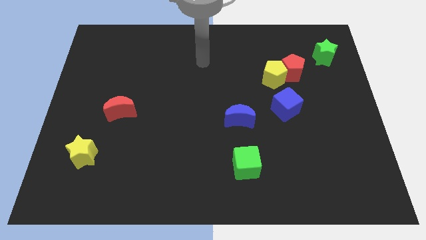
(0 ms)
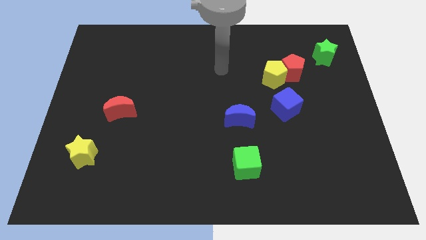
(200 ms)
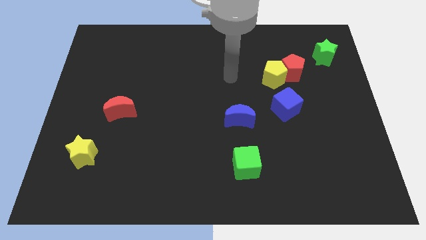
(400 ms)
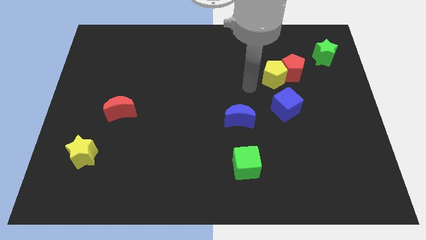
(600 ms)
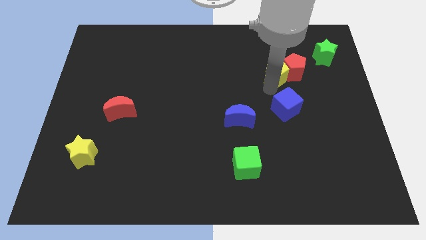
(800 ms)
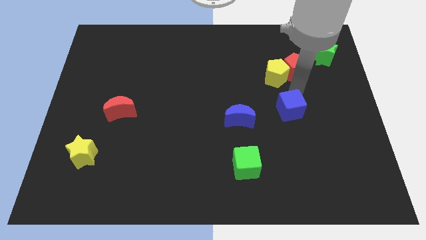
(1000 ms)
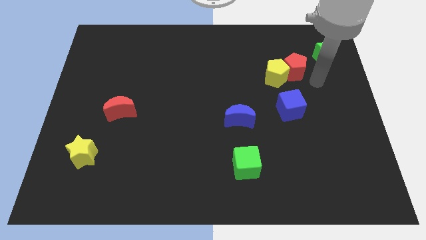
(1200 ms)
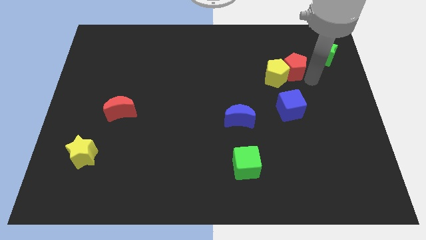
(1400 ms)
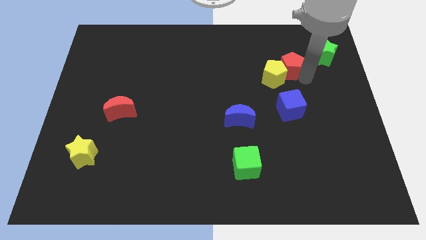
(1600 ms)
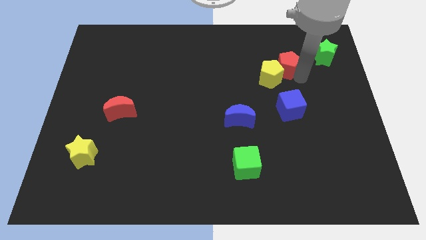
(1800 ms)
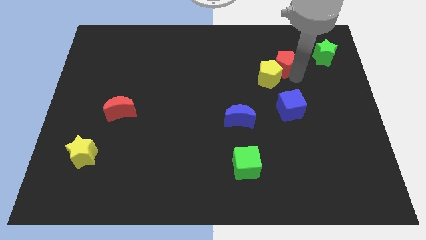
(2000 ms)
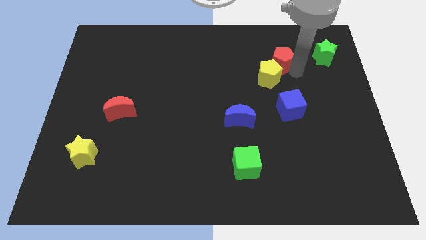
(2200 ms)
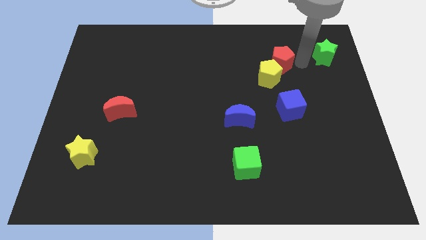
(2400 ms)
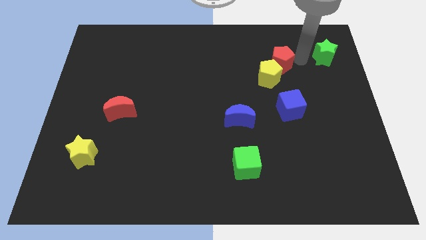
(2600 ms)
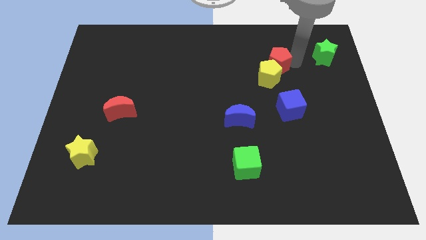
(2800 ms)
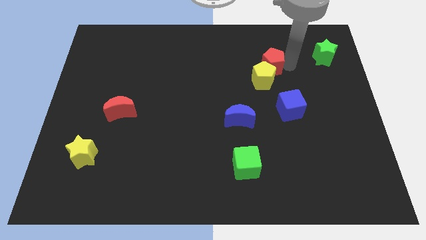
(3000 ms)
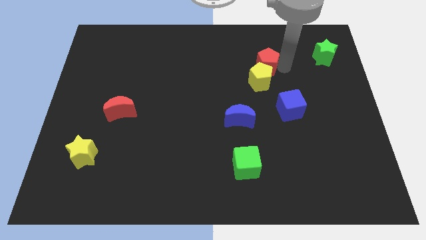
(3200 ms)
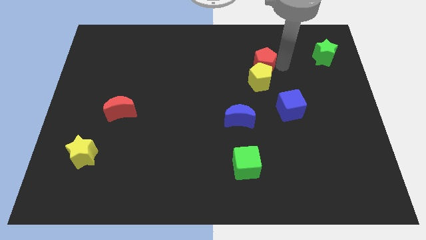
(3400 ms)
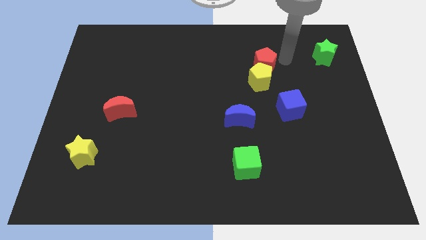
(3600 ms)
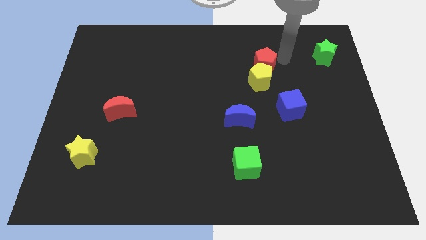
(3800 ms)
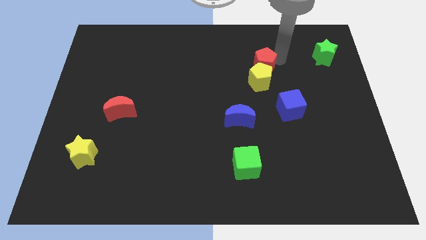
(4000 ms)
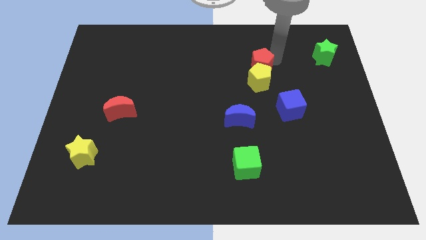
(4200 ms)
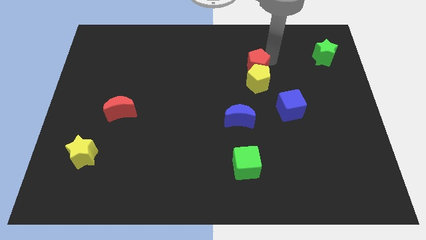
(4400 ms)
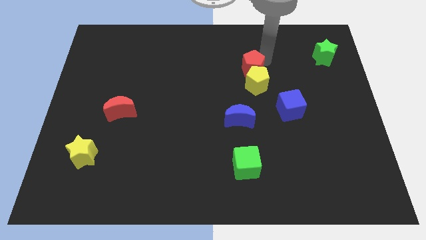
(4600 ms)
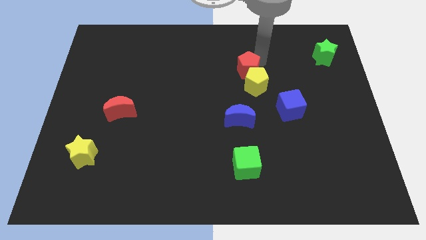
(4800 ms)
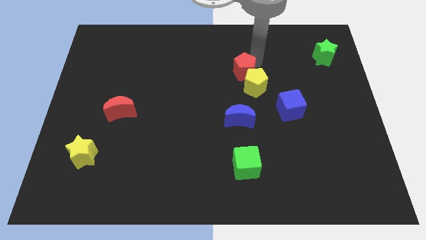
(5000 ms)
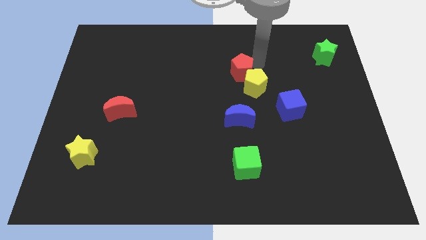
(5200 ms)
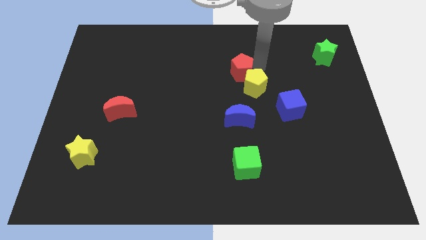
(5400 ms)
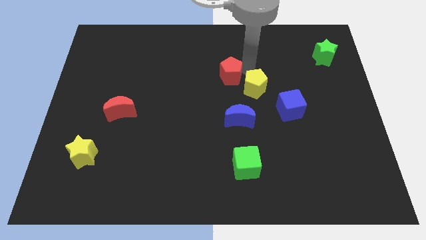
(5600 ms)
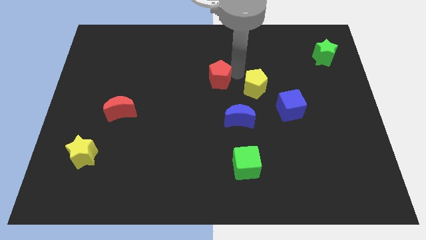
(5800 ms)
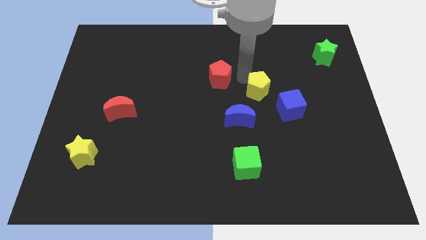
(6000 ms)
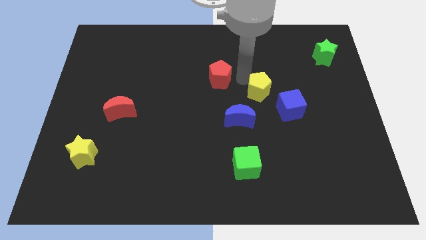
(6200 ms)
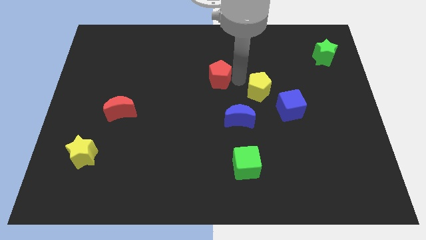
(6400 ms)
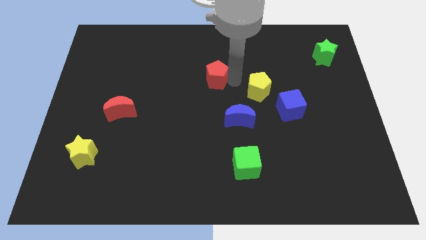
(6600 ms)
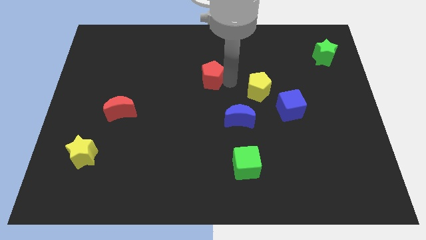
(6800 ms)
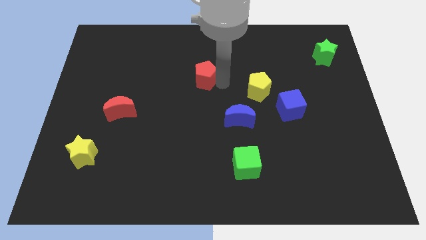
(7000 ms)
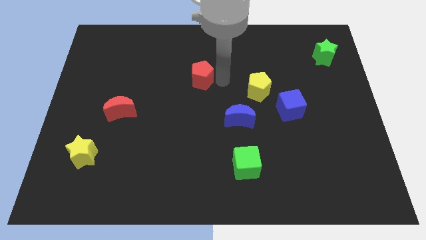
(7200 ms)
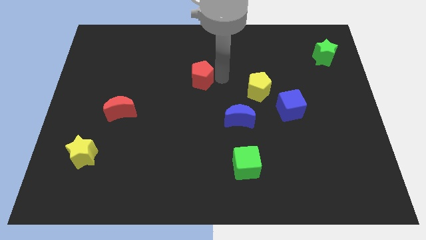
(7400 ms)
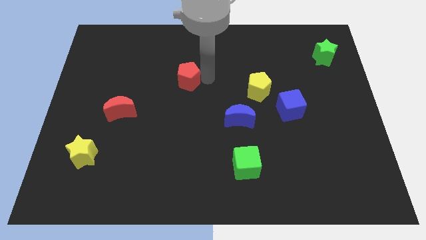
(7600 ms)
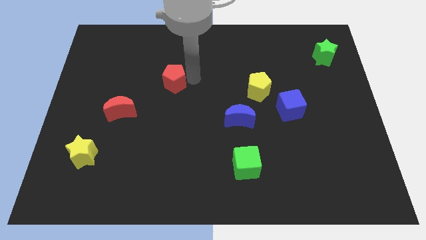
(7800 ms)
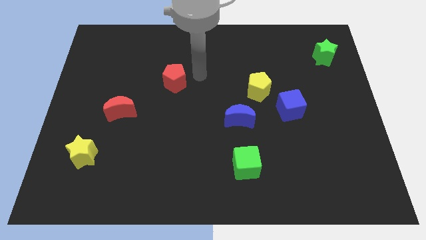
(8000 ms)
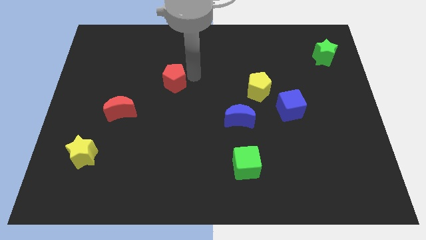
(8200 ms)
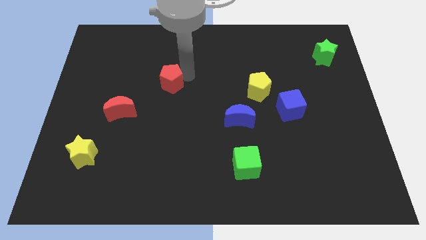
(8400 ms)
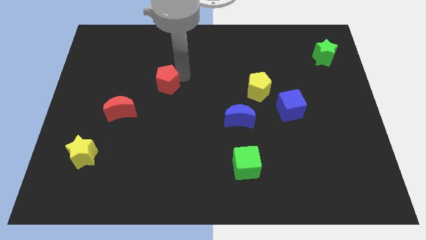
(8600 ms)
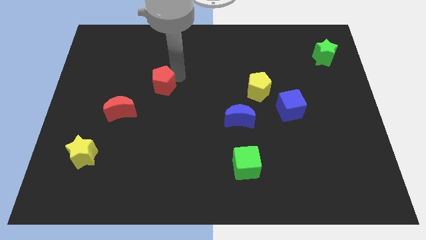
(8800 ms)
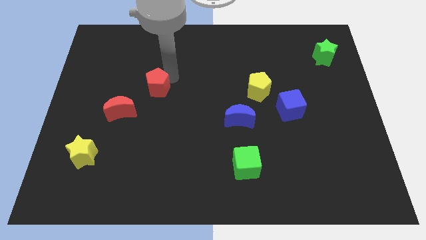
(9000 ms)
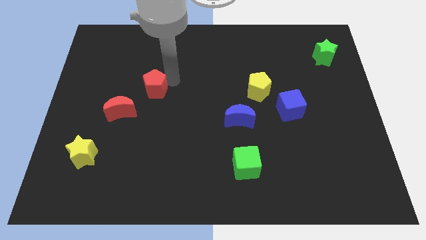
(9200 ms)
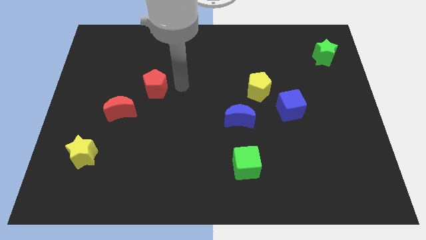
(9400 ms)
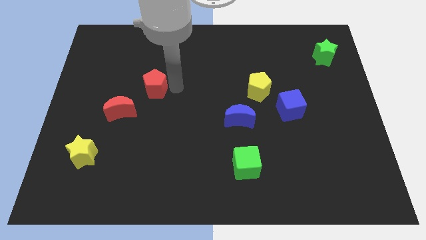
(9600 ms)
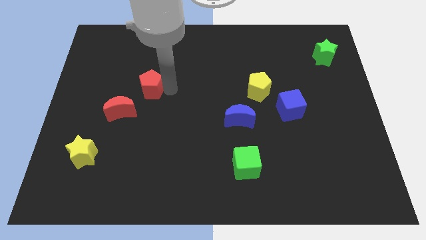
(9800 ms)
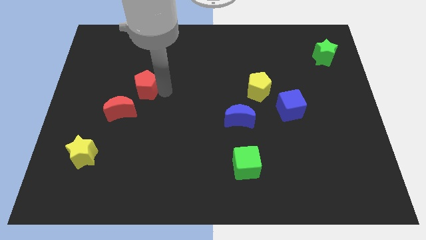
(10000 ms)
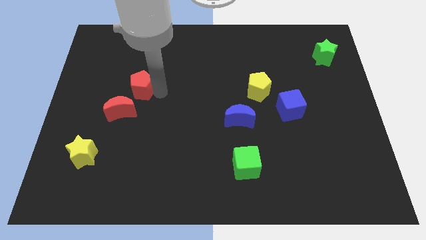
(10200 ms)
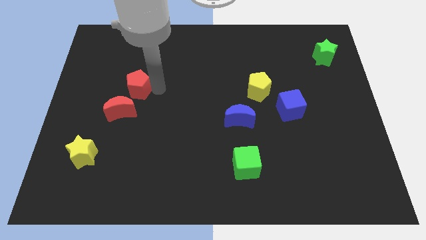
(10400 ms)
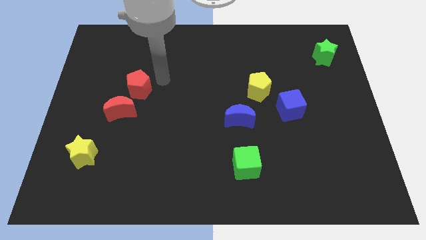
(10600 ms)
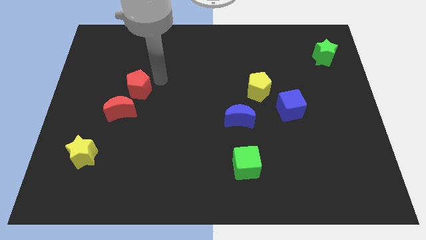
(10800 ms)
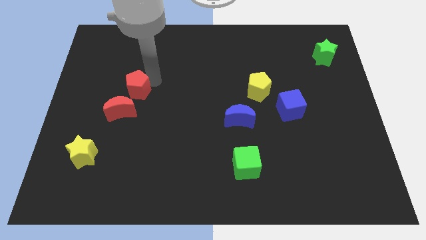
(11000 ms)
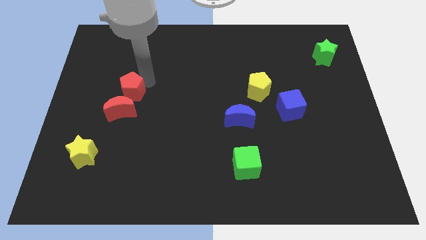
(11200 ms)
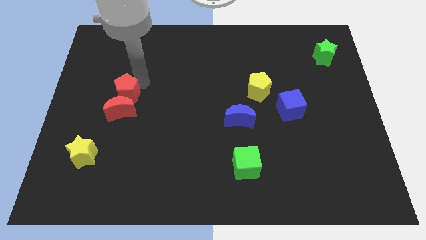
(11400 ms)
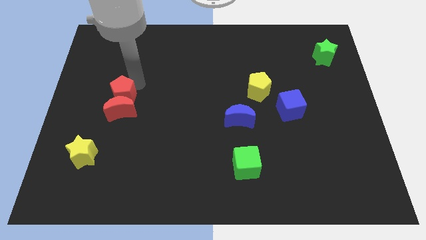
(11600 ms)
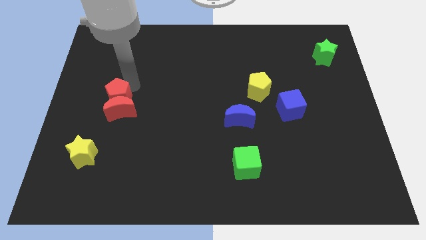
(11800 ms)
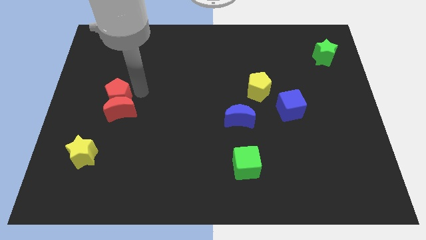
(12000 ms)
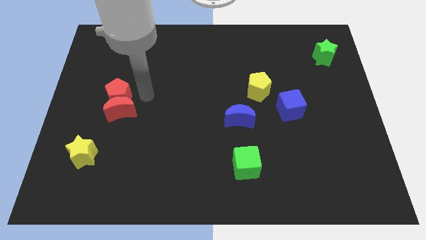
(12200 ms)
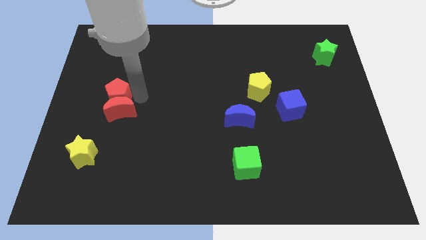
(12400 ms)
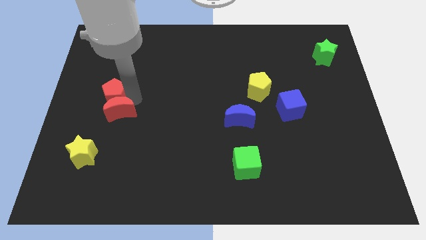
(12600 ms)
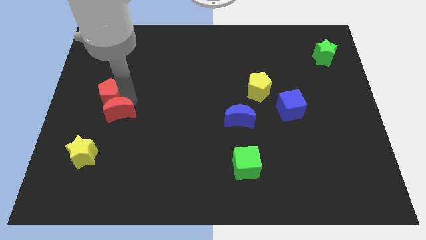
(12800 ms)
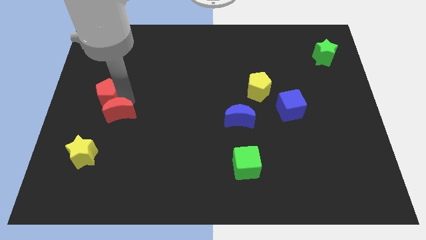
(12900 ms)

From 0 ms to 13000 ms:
put the red pentagon to the left side of the board
